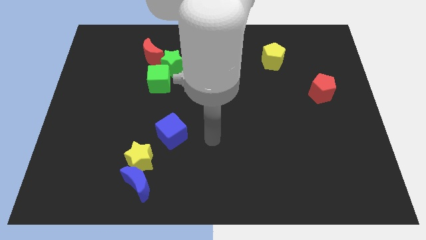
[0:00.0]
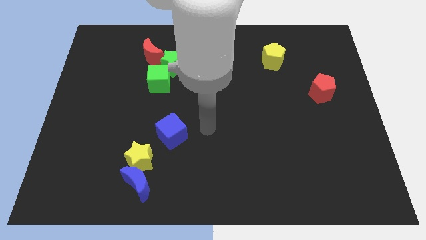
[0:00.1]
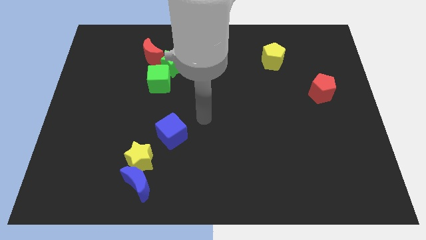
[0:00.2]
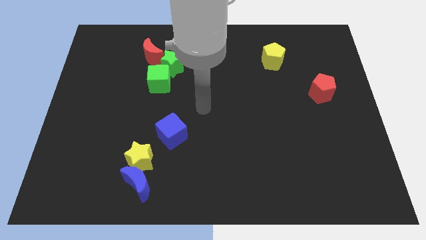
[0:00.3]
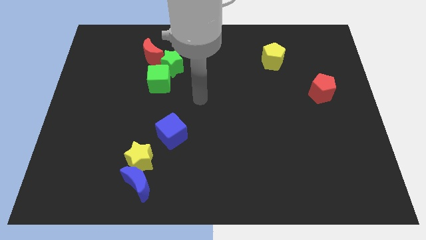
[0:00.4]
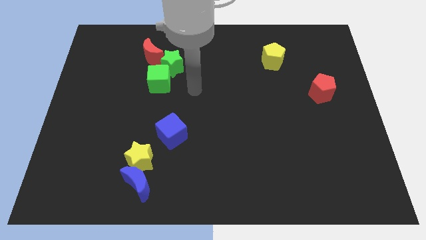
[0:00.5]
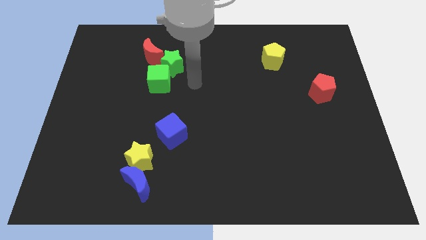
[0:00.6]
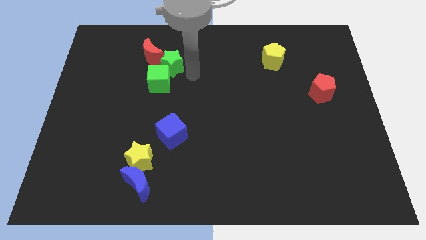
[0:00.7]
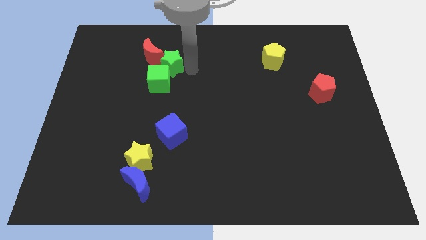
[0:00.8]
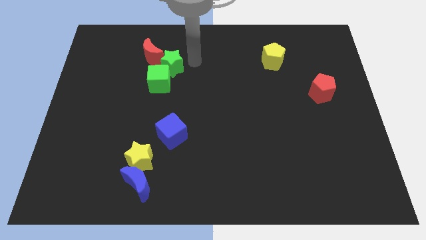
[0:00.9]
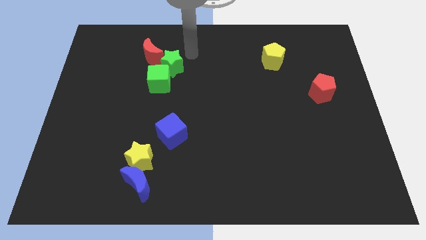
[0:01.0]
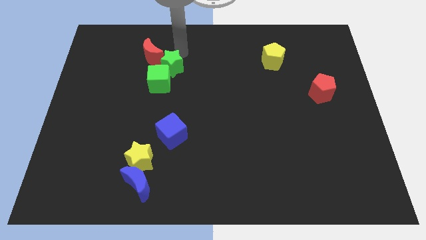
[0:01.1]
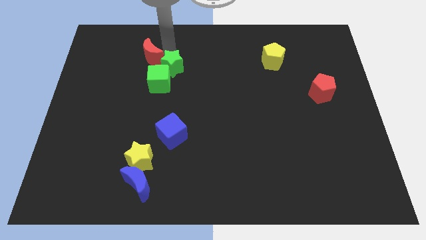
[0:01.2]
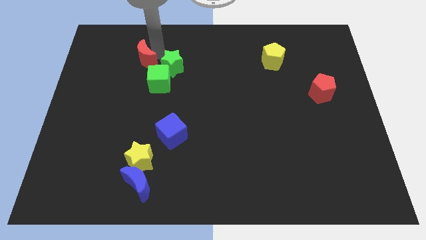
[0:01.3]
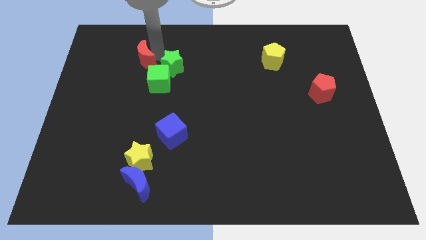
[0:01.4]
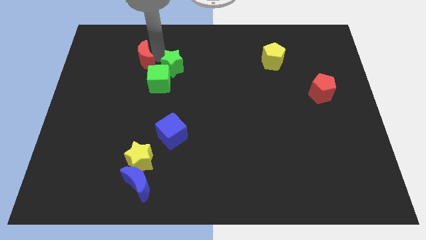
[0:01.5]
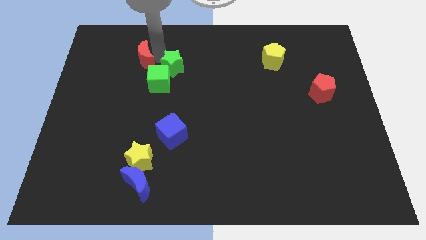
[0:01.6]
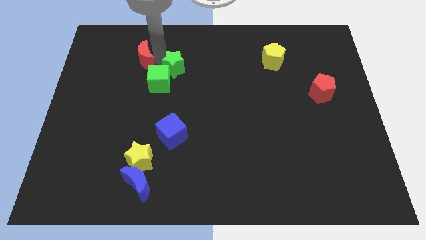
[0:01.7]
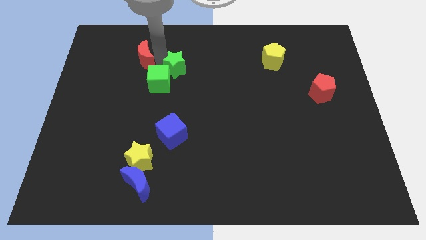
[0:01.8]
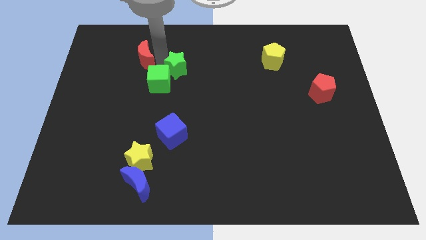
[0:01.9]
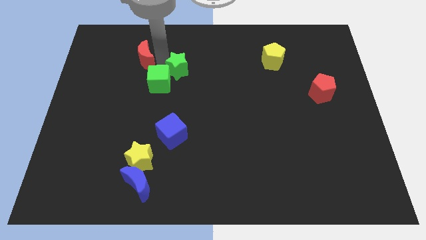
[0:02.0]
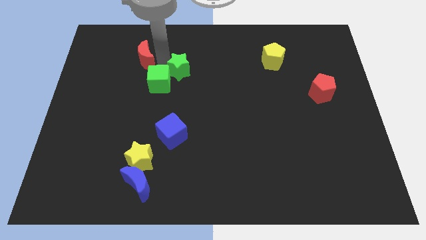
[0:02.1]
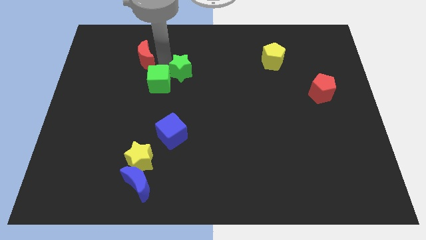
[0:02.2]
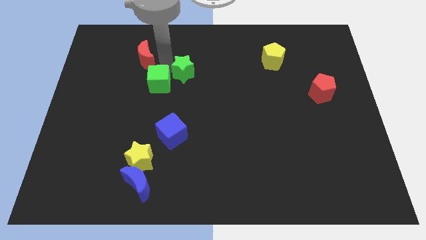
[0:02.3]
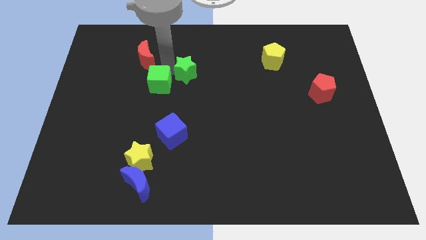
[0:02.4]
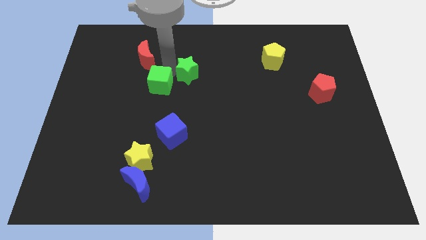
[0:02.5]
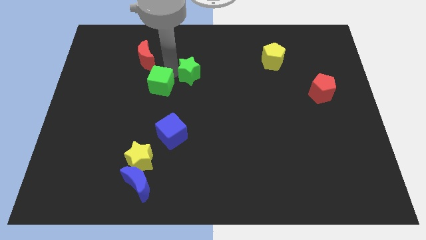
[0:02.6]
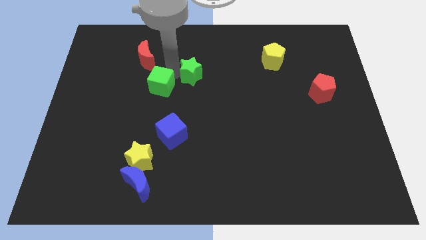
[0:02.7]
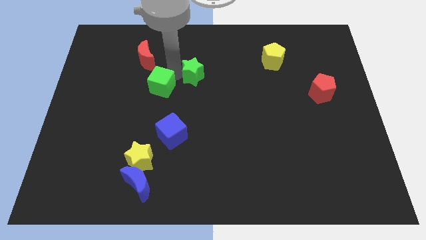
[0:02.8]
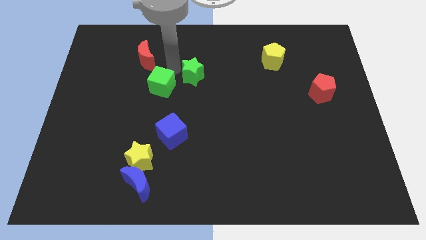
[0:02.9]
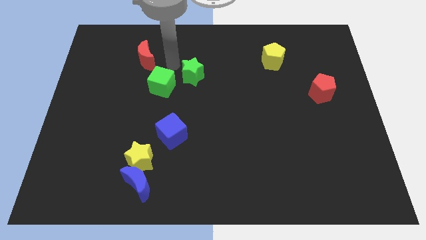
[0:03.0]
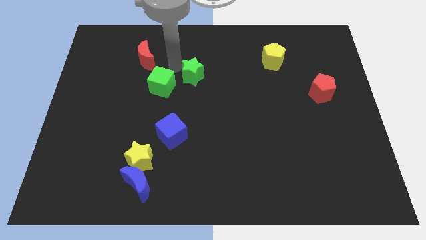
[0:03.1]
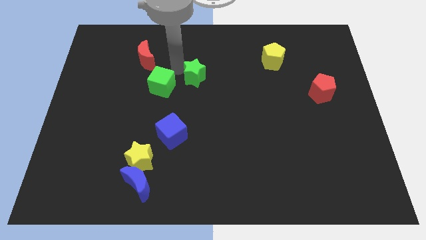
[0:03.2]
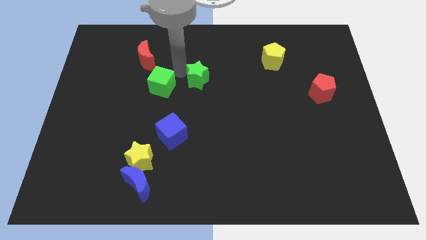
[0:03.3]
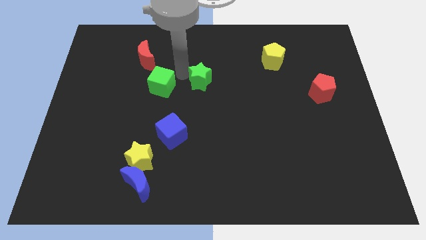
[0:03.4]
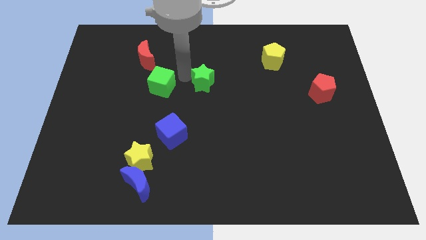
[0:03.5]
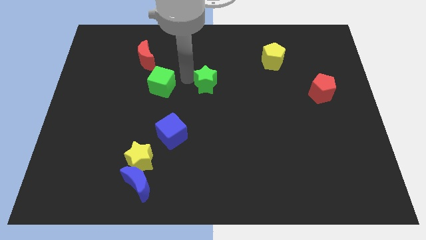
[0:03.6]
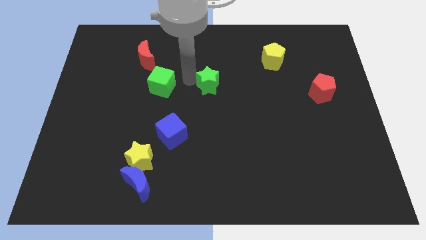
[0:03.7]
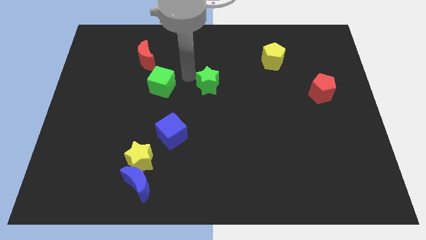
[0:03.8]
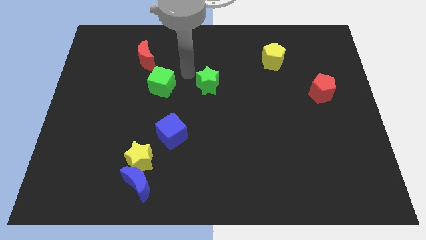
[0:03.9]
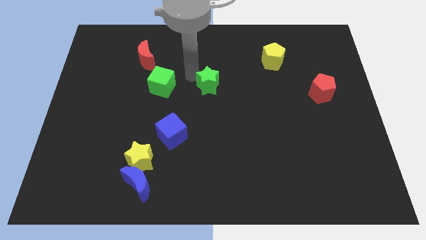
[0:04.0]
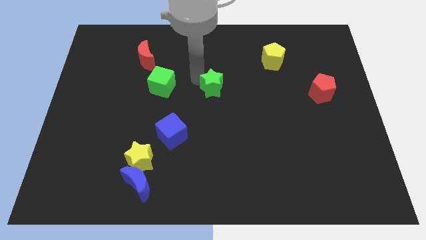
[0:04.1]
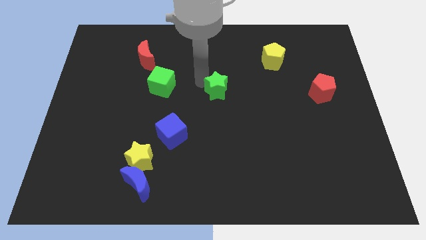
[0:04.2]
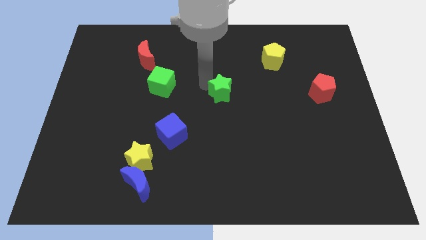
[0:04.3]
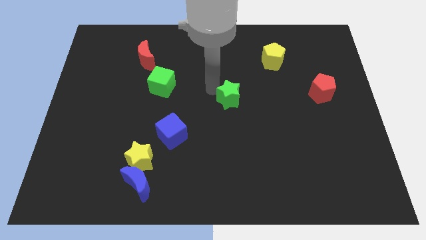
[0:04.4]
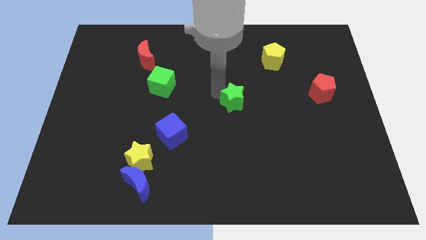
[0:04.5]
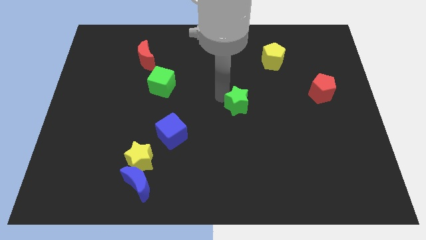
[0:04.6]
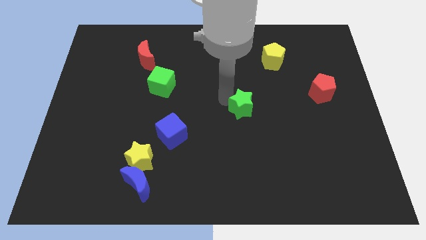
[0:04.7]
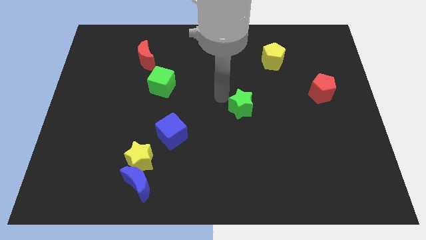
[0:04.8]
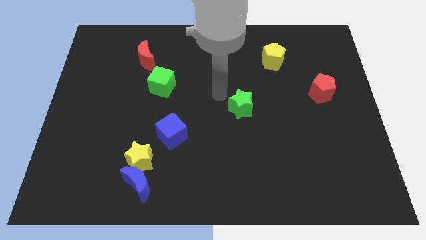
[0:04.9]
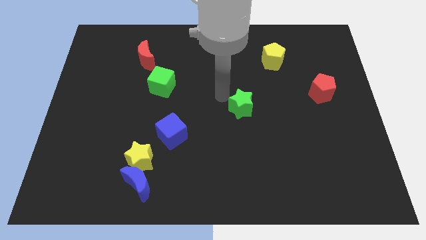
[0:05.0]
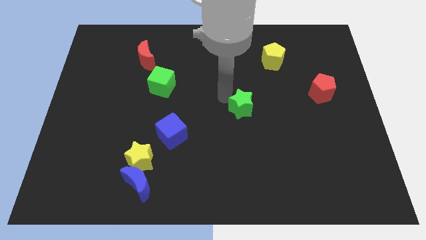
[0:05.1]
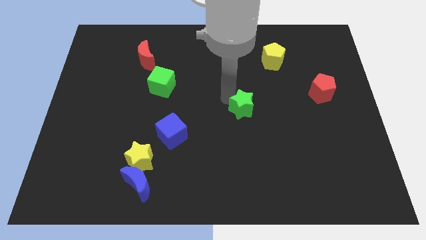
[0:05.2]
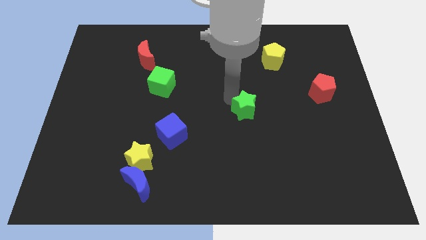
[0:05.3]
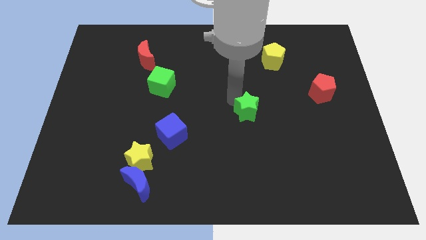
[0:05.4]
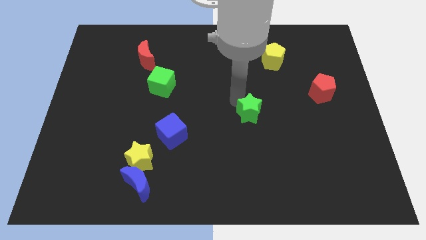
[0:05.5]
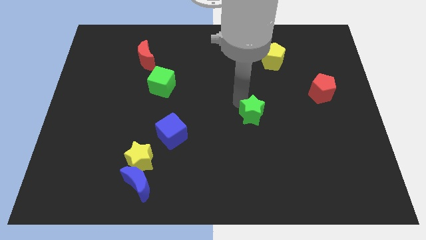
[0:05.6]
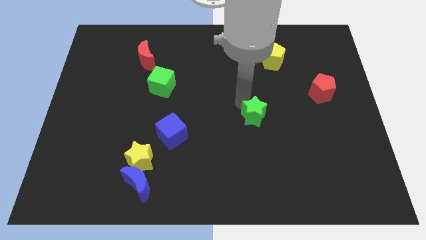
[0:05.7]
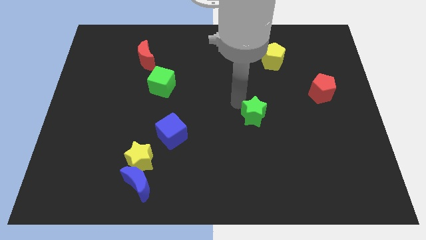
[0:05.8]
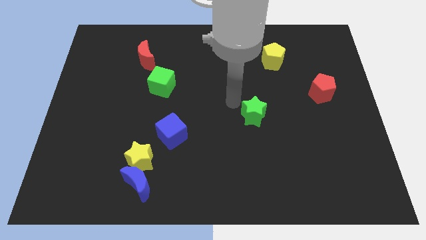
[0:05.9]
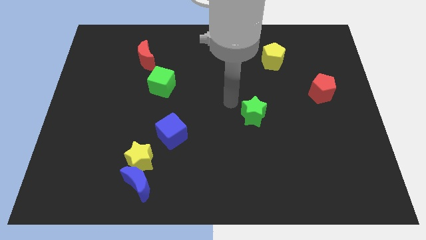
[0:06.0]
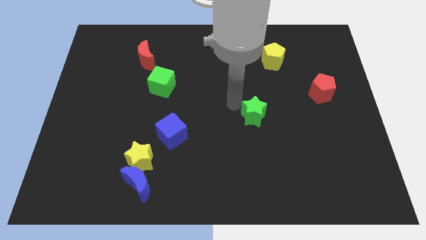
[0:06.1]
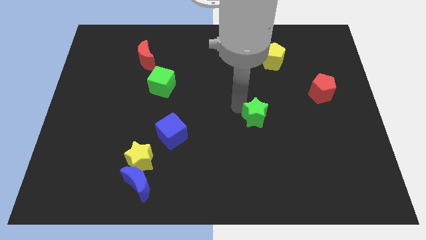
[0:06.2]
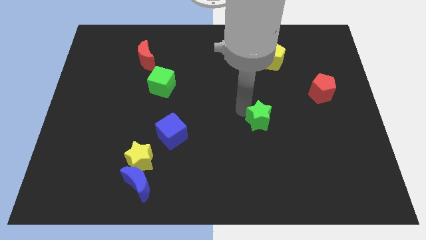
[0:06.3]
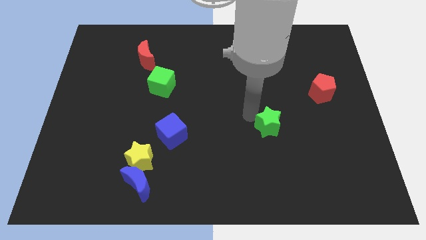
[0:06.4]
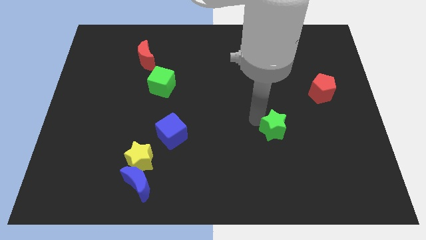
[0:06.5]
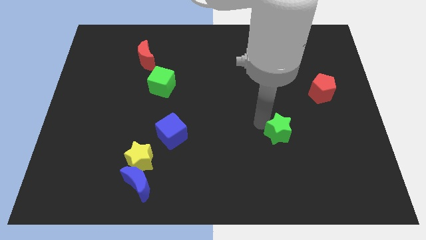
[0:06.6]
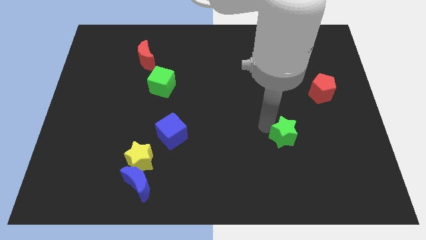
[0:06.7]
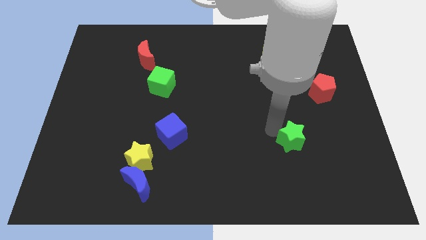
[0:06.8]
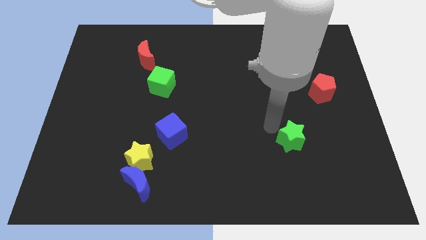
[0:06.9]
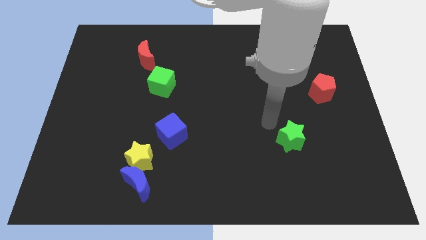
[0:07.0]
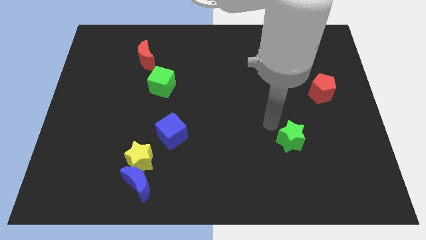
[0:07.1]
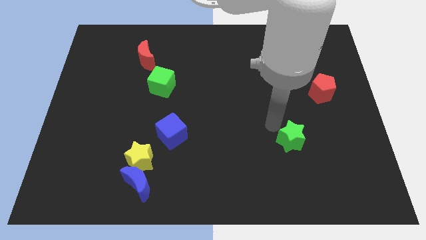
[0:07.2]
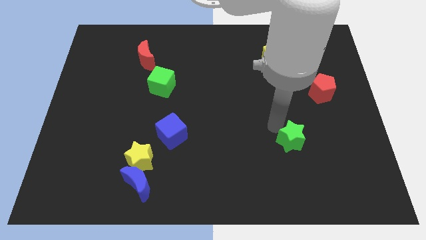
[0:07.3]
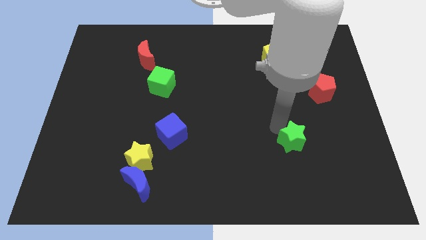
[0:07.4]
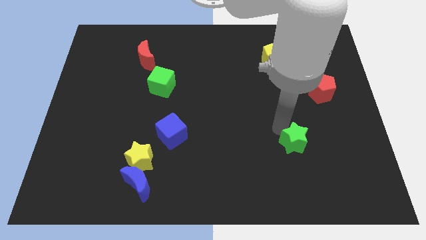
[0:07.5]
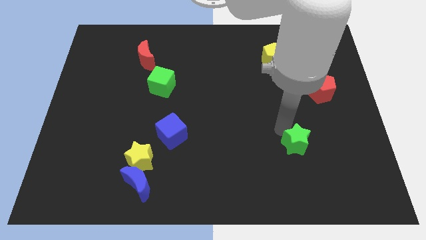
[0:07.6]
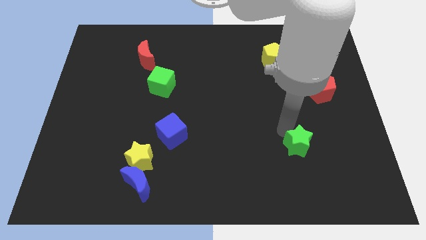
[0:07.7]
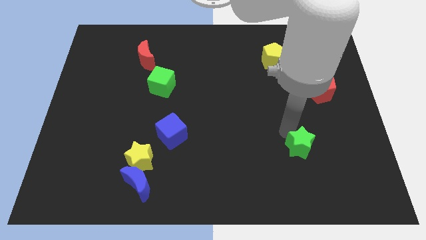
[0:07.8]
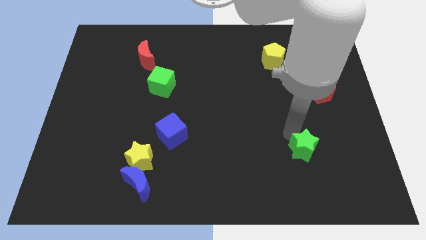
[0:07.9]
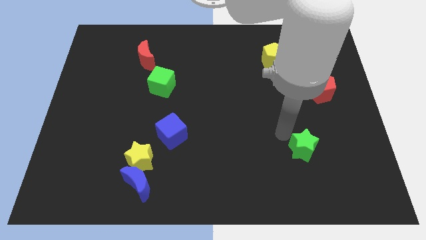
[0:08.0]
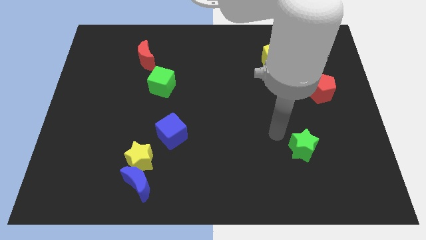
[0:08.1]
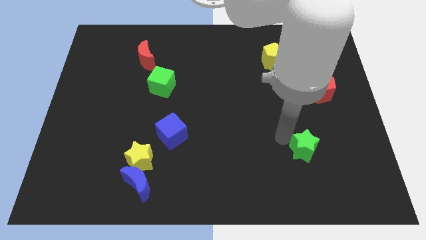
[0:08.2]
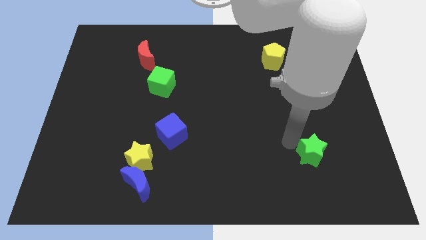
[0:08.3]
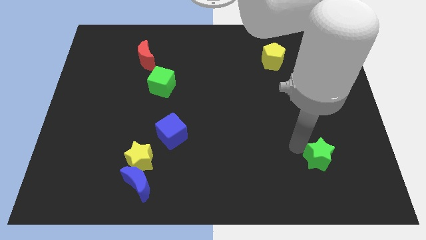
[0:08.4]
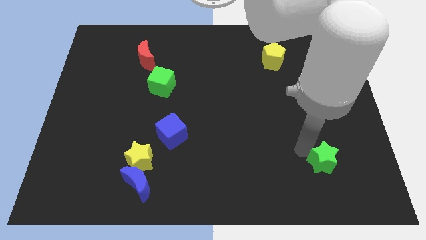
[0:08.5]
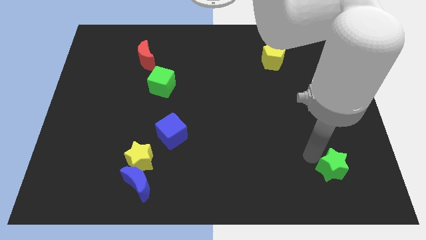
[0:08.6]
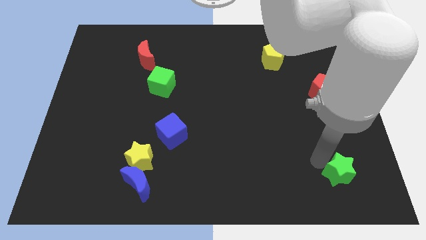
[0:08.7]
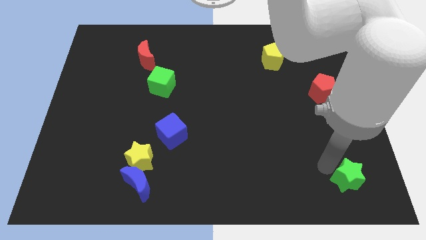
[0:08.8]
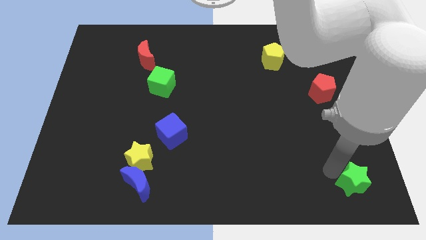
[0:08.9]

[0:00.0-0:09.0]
slide the green star to the lower right corner
